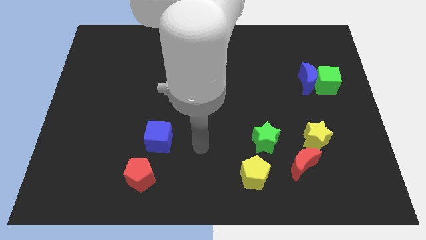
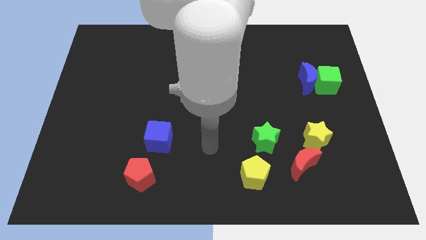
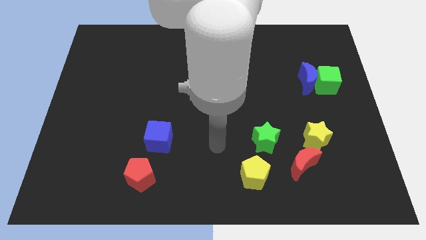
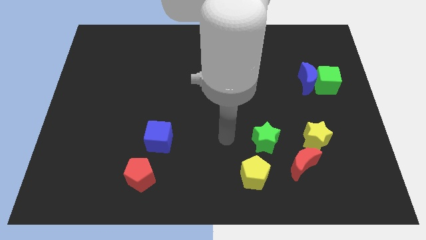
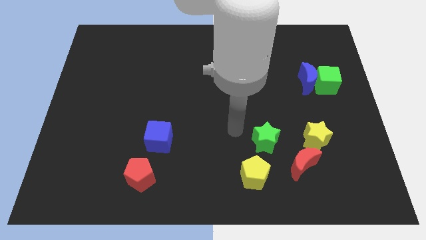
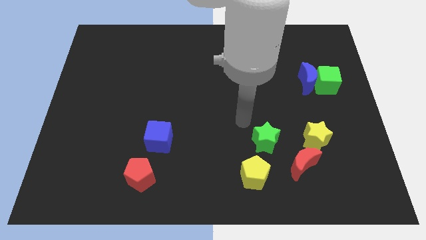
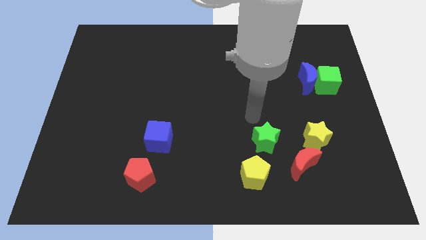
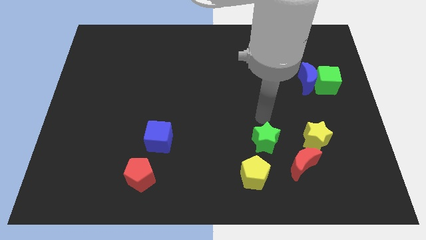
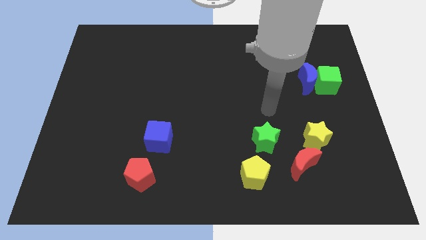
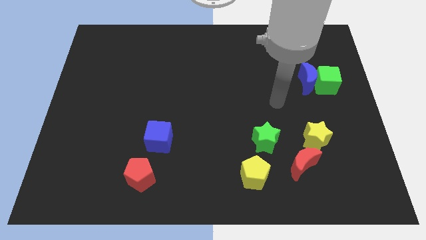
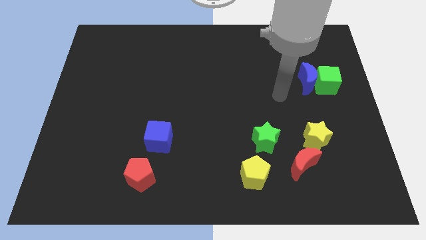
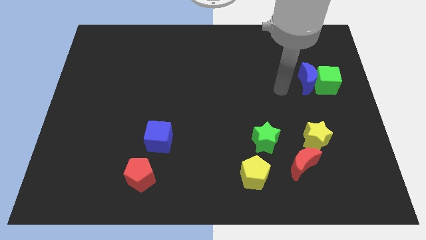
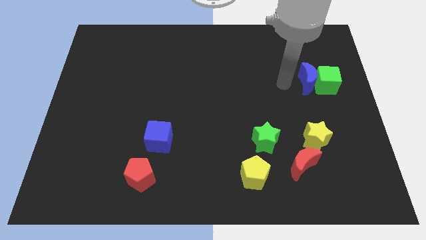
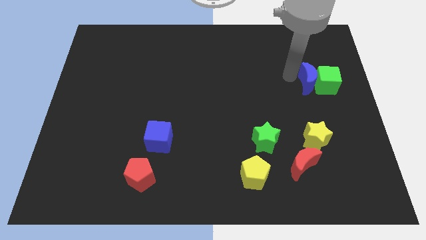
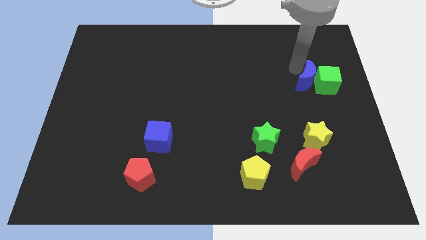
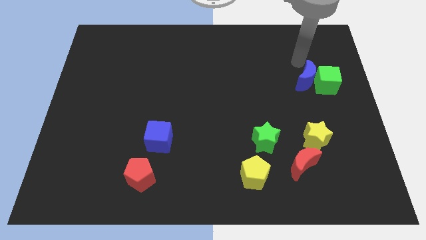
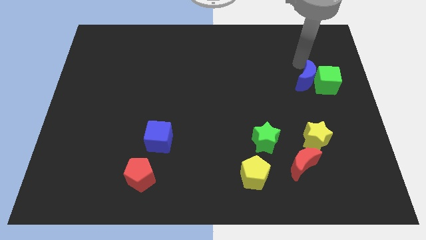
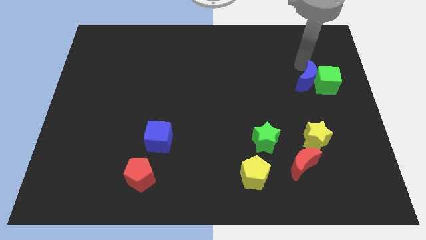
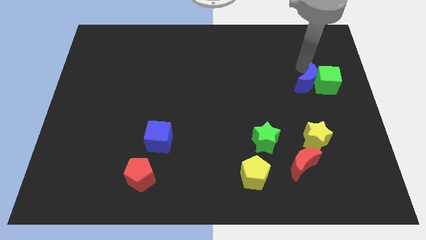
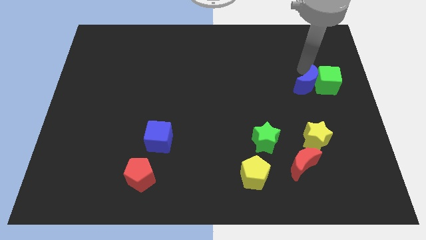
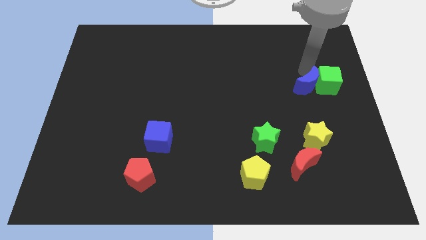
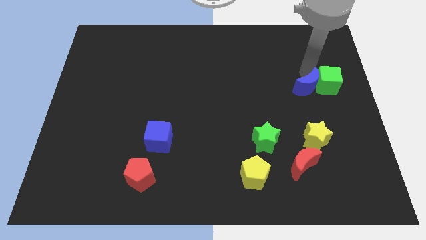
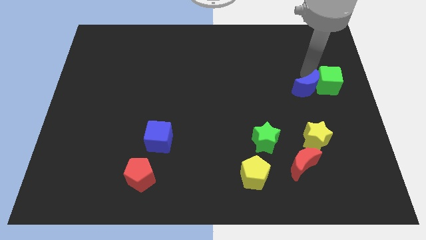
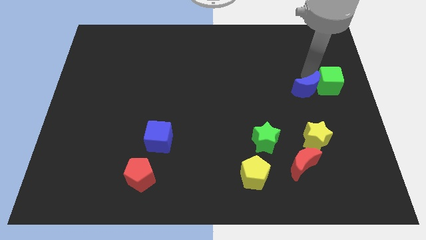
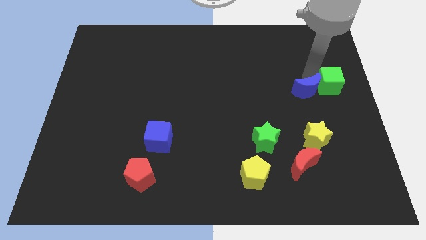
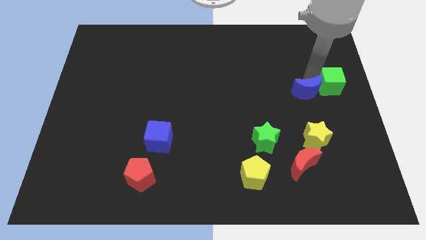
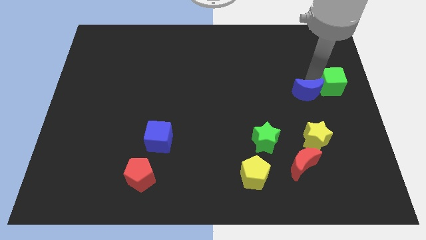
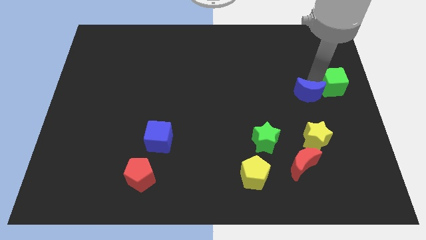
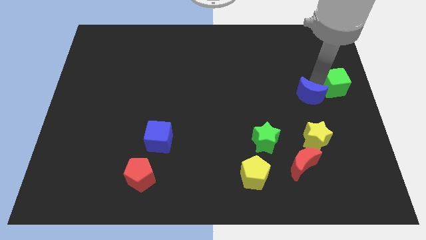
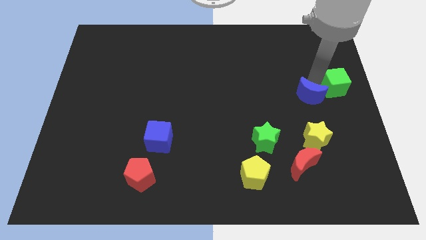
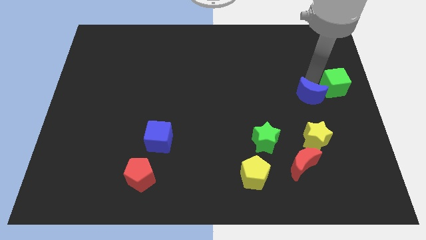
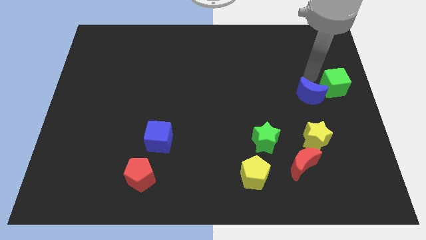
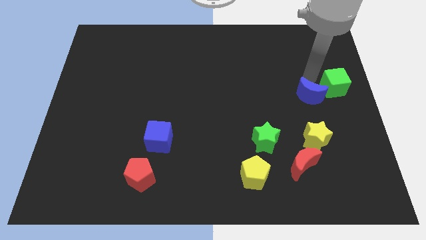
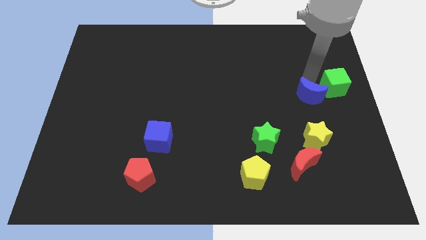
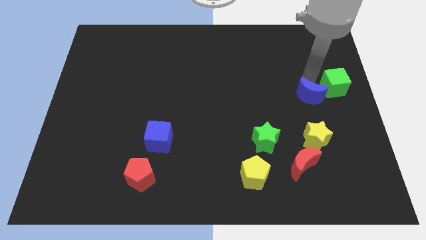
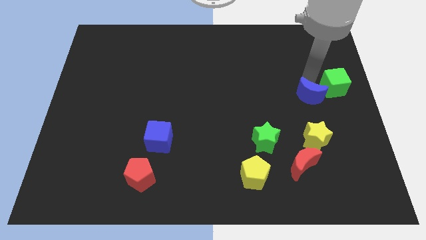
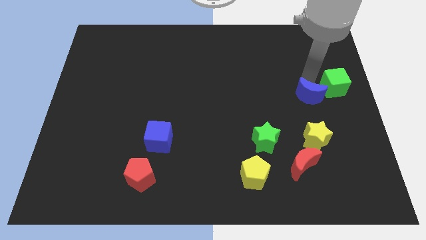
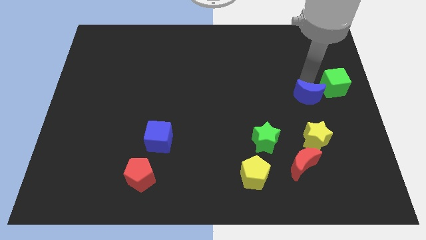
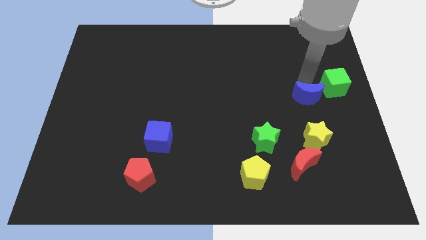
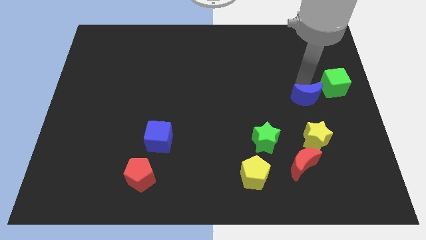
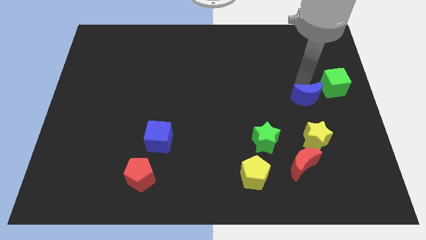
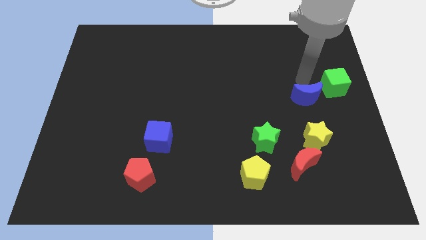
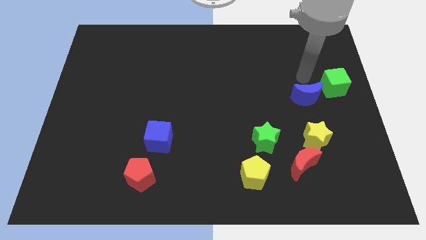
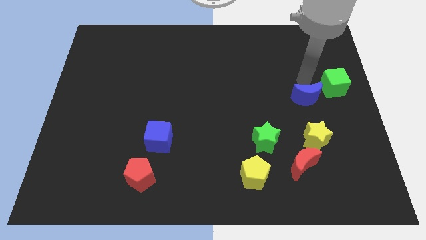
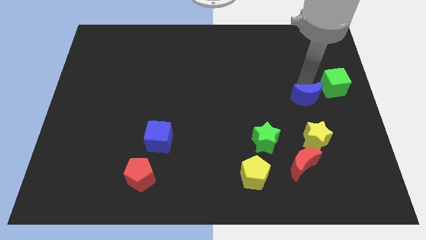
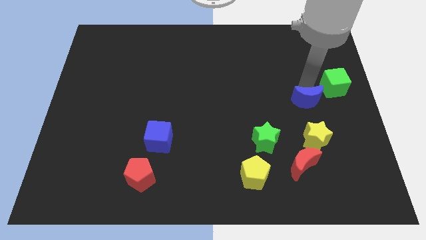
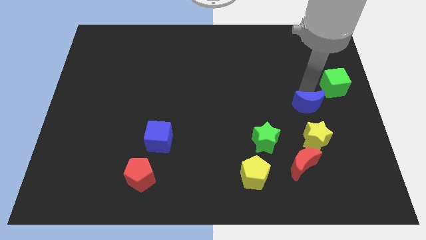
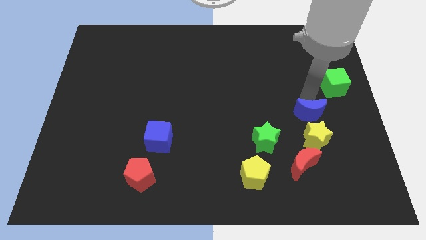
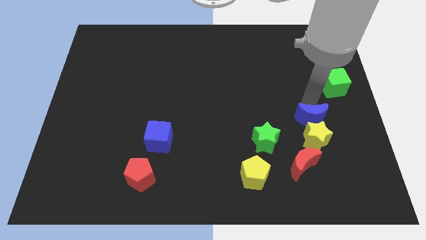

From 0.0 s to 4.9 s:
move the blue moon towards the yellow star

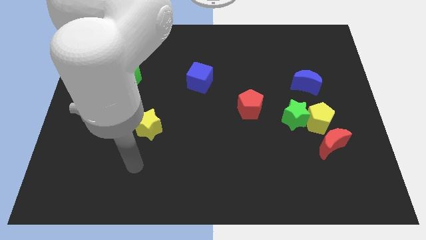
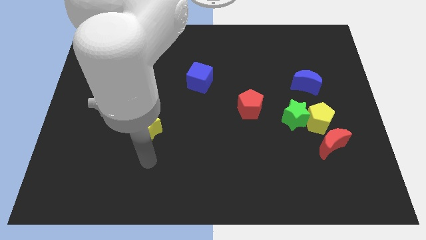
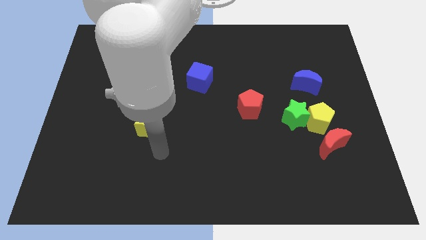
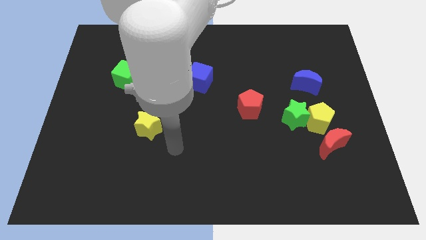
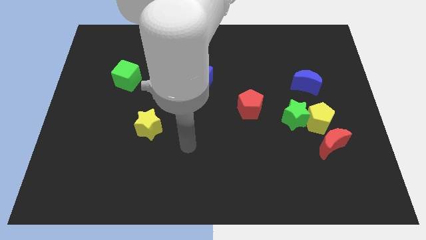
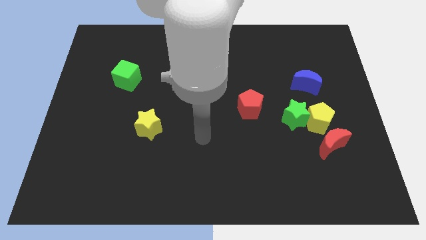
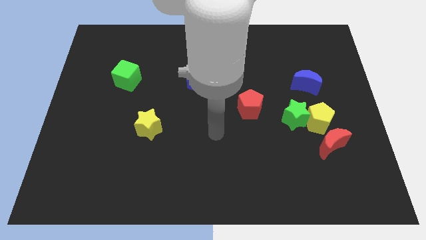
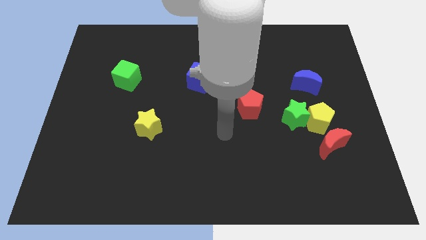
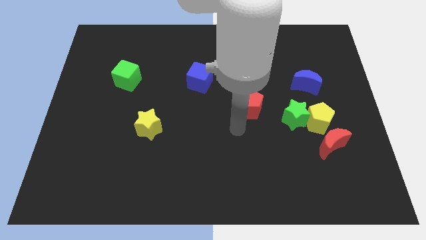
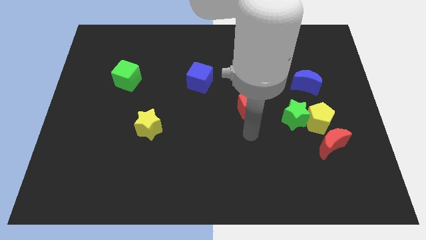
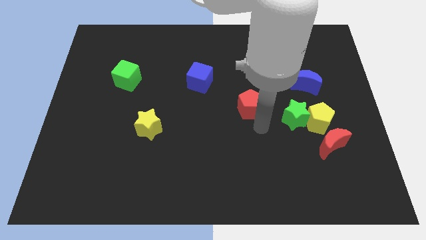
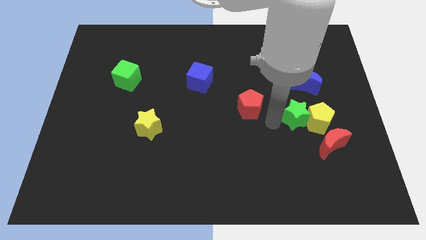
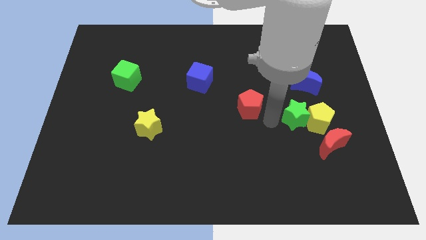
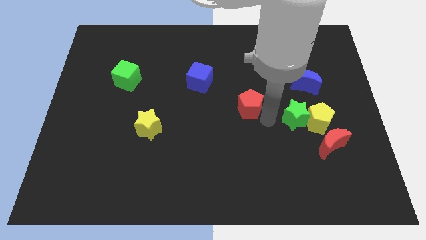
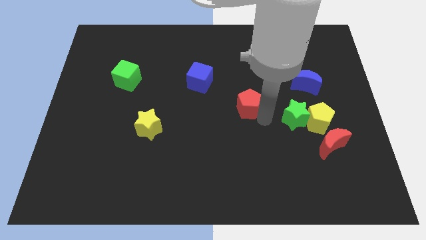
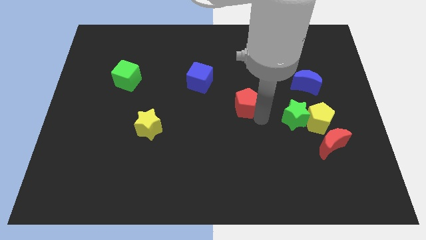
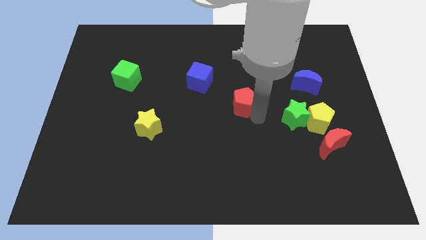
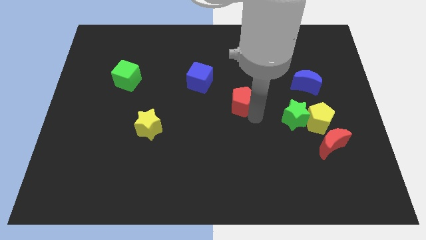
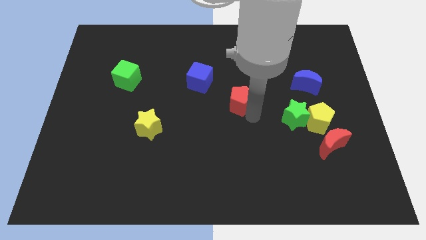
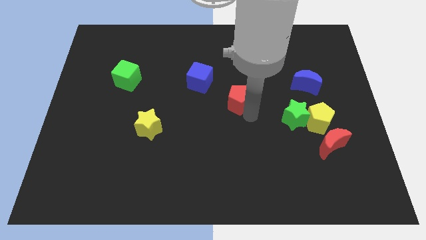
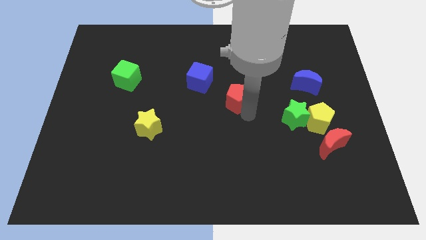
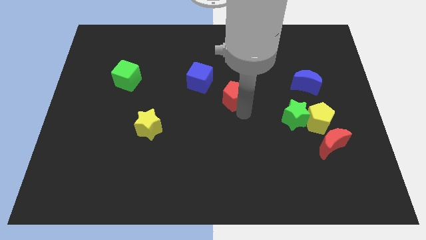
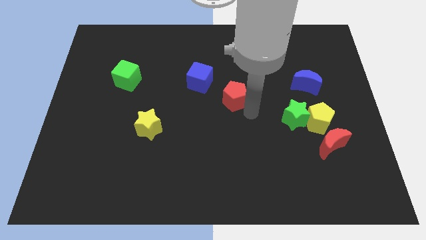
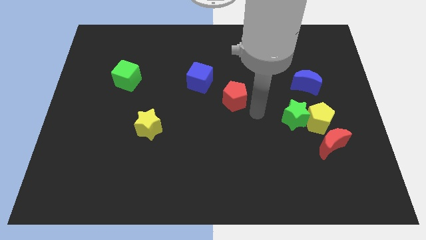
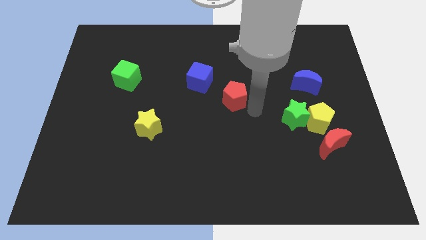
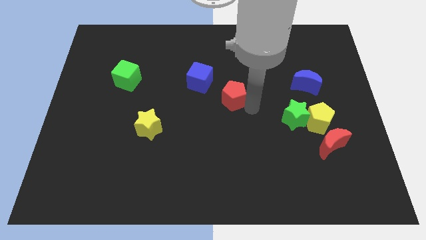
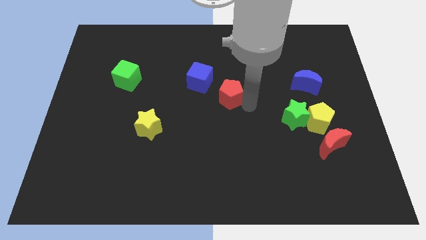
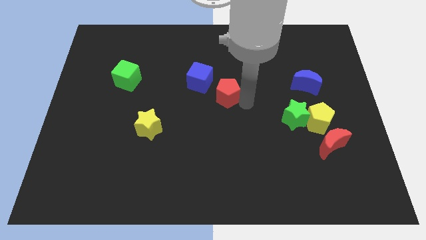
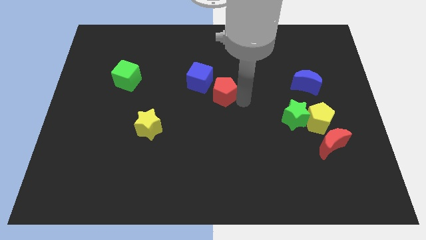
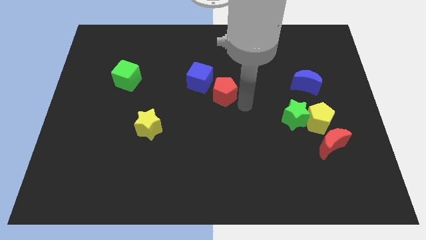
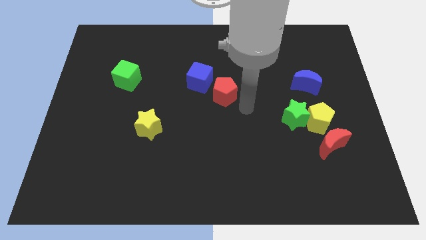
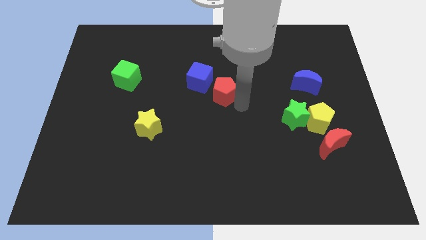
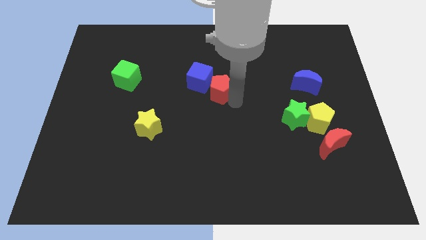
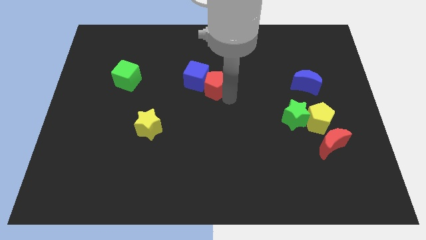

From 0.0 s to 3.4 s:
push the red pentagon close to the blue cube
